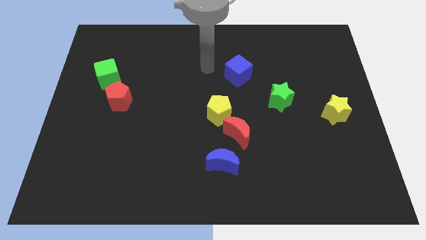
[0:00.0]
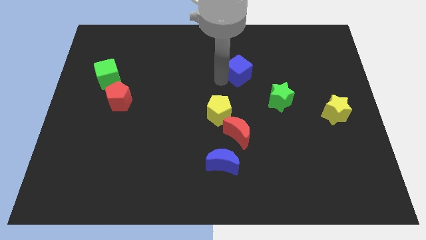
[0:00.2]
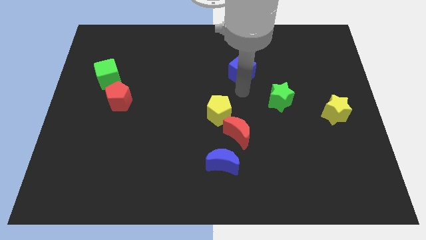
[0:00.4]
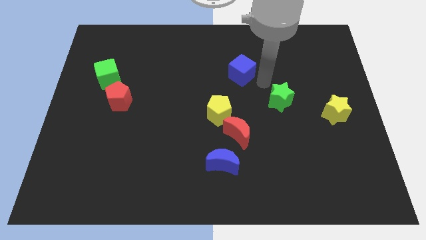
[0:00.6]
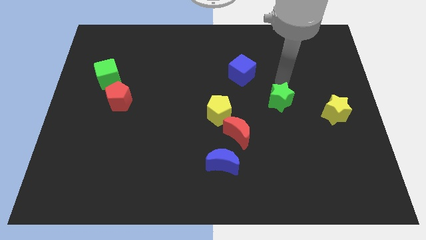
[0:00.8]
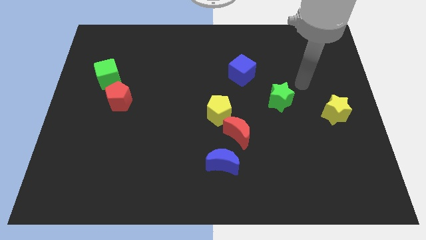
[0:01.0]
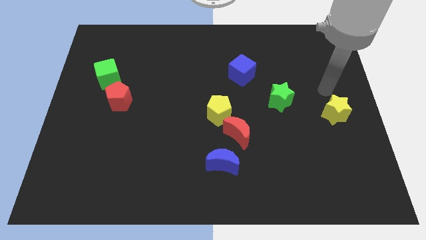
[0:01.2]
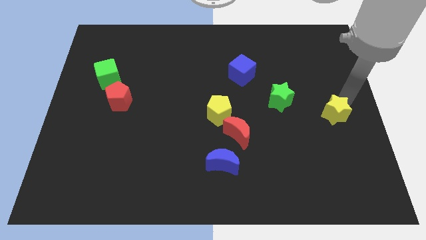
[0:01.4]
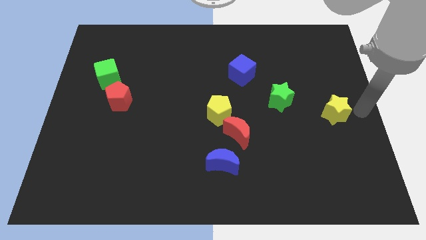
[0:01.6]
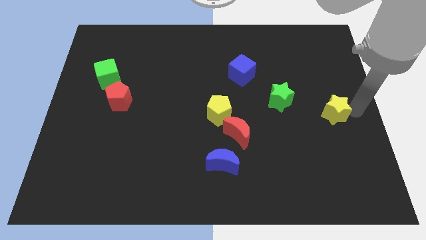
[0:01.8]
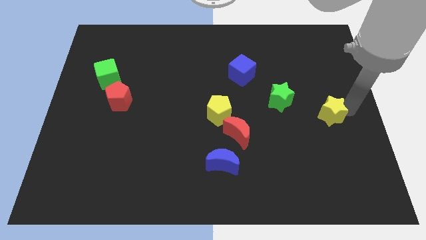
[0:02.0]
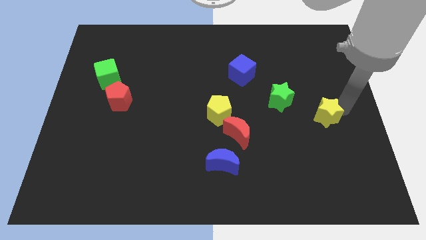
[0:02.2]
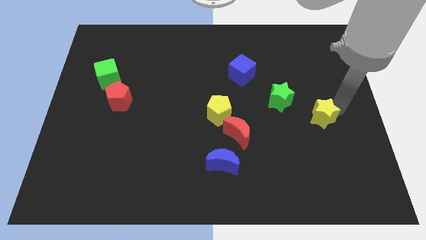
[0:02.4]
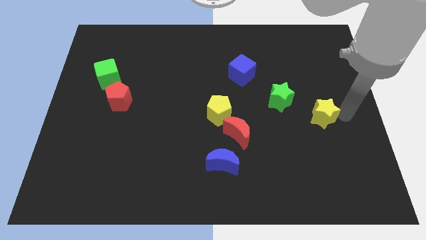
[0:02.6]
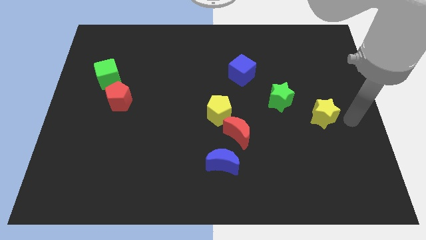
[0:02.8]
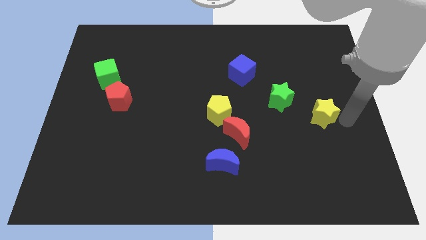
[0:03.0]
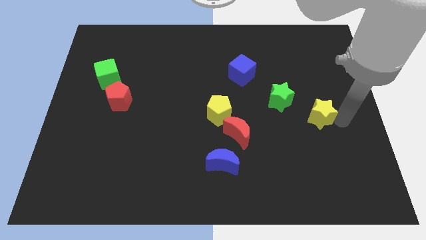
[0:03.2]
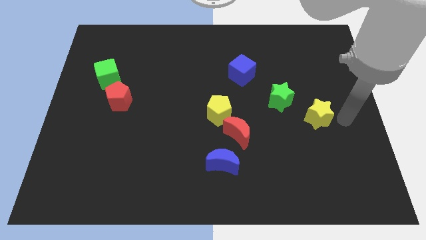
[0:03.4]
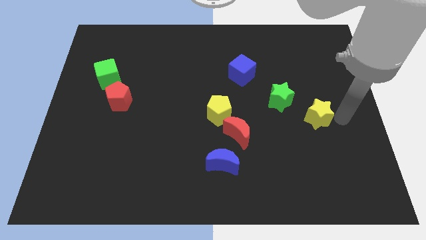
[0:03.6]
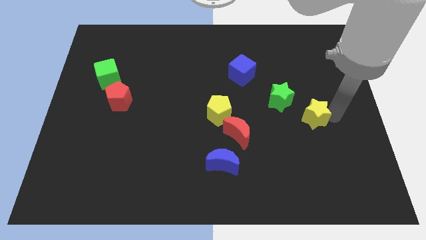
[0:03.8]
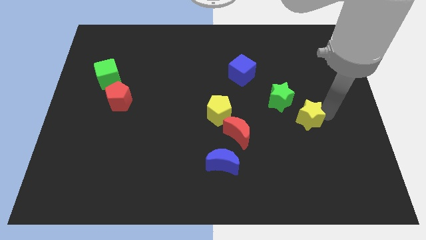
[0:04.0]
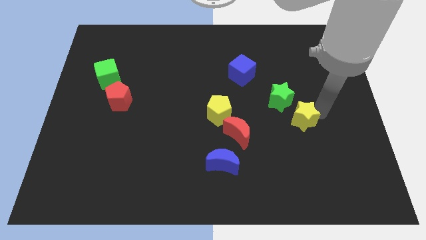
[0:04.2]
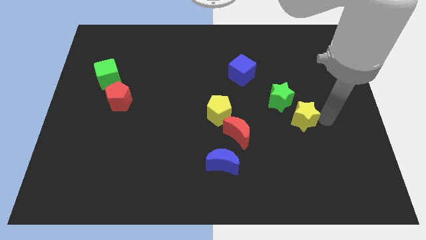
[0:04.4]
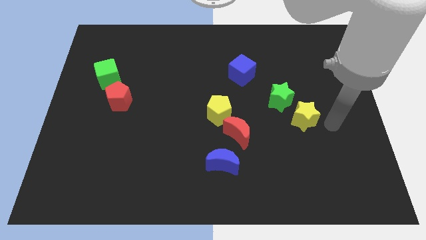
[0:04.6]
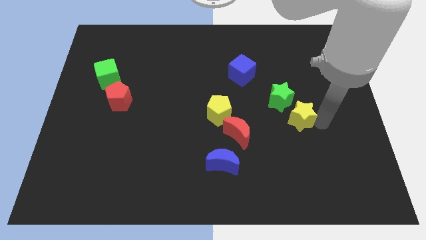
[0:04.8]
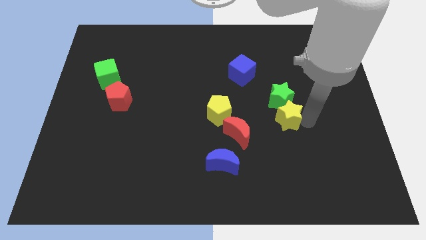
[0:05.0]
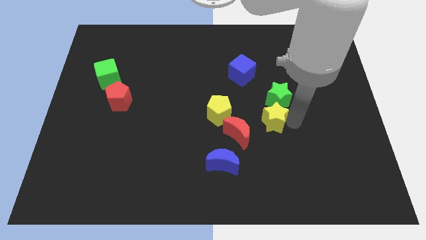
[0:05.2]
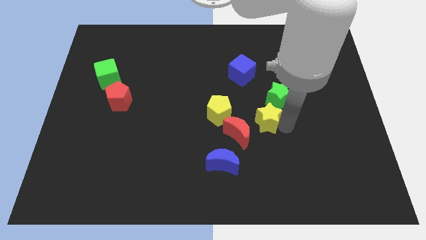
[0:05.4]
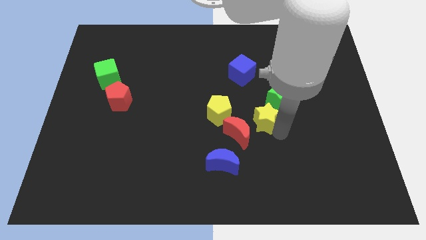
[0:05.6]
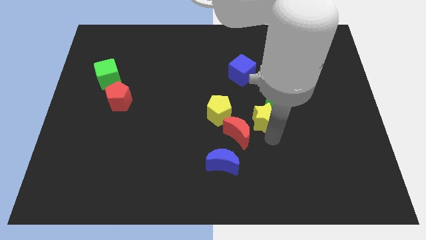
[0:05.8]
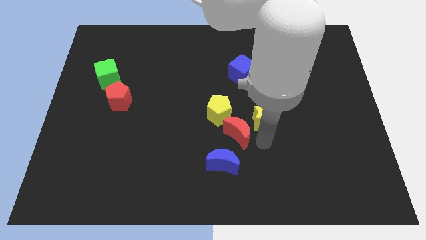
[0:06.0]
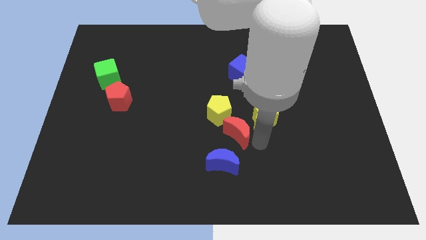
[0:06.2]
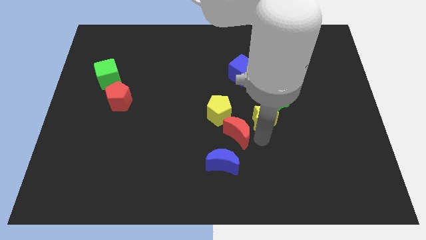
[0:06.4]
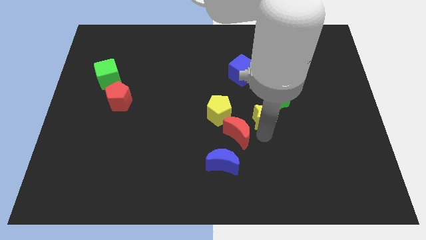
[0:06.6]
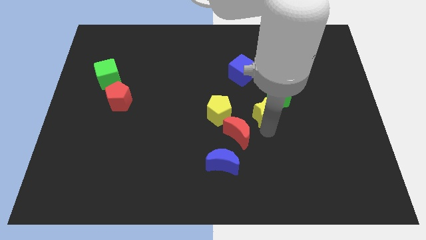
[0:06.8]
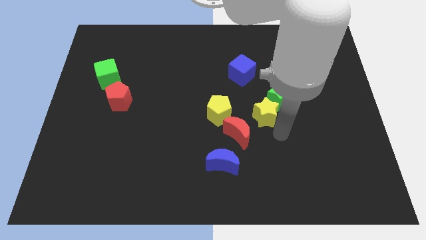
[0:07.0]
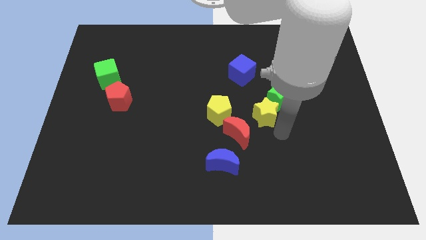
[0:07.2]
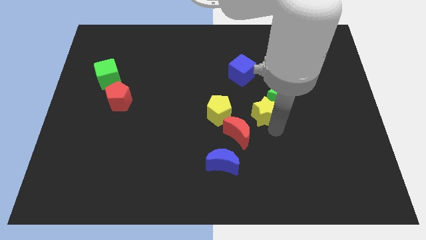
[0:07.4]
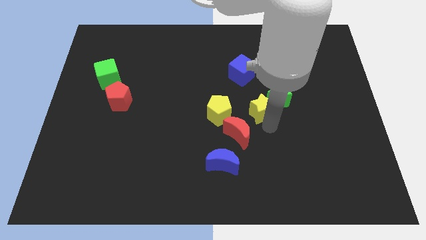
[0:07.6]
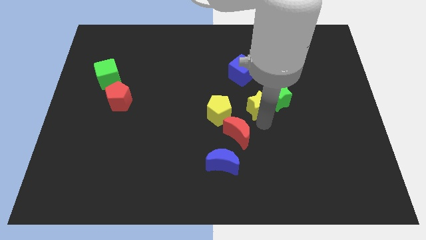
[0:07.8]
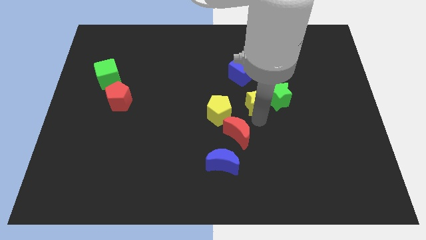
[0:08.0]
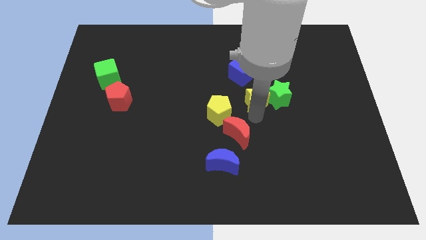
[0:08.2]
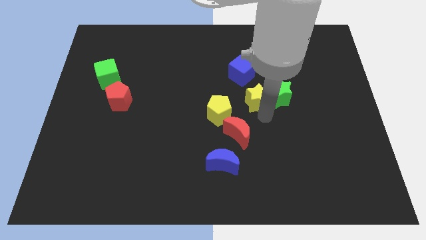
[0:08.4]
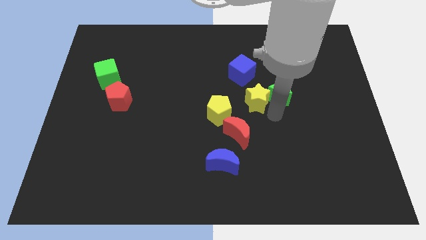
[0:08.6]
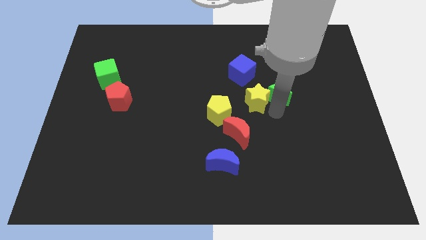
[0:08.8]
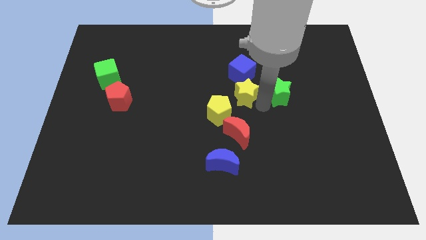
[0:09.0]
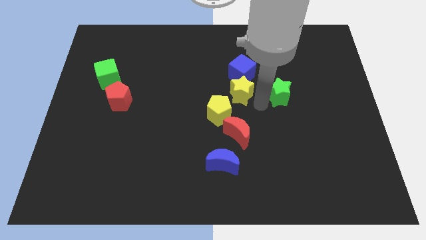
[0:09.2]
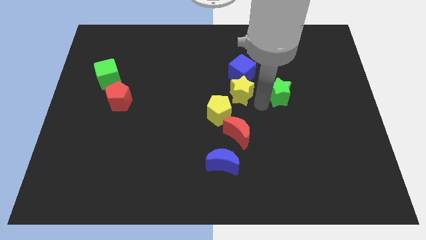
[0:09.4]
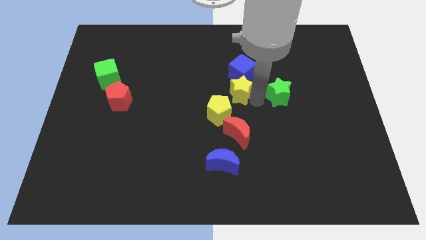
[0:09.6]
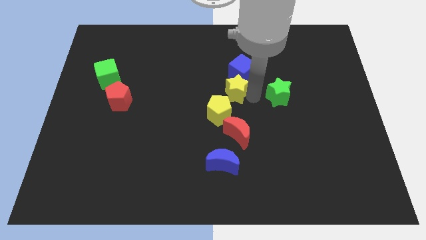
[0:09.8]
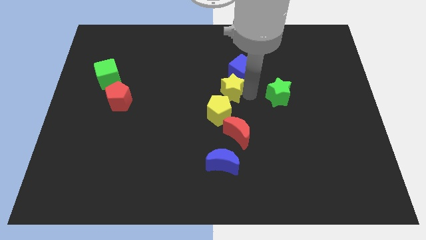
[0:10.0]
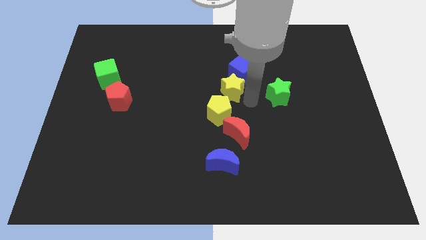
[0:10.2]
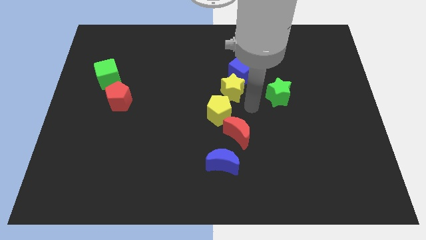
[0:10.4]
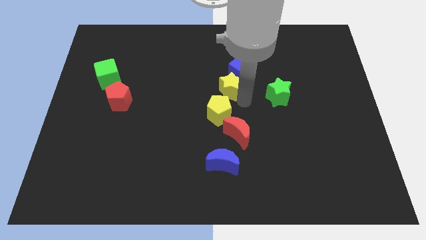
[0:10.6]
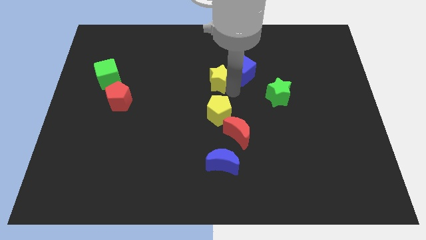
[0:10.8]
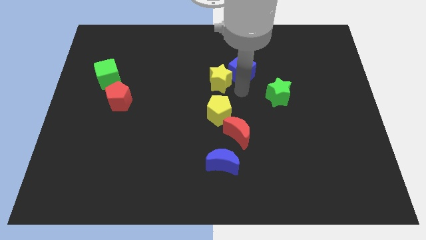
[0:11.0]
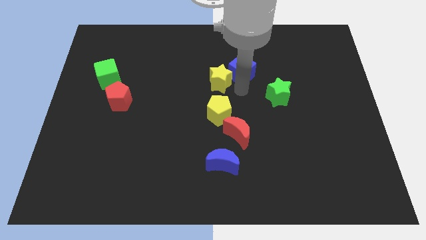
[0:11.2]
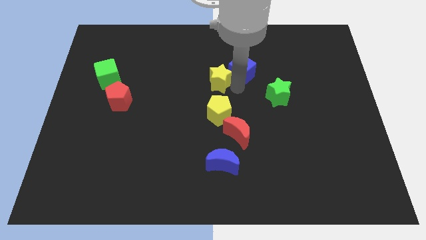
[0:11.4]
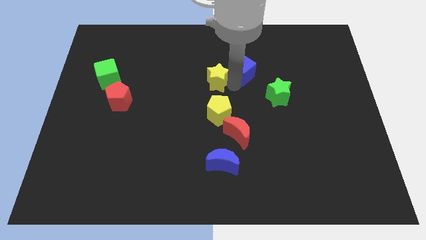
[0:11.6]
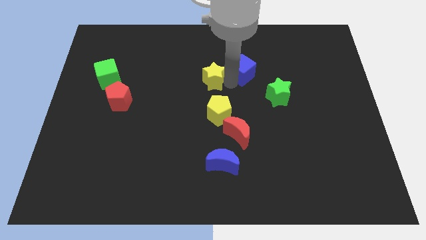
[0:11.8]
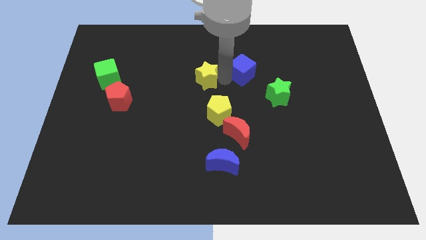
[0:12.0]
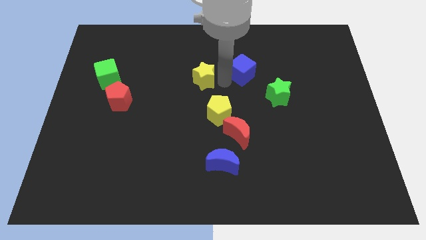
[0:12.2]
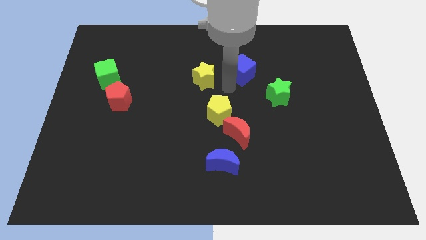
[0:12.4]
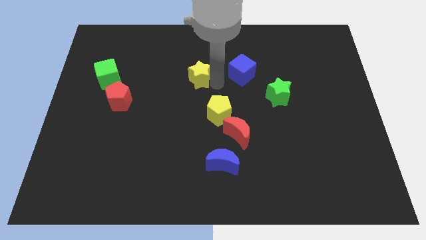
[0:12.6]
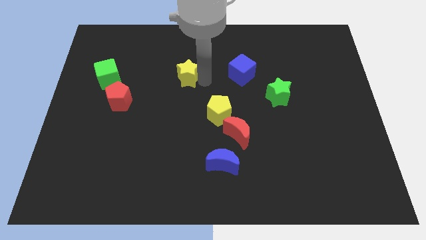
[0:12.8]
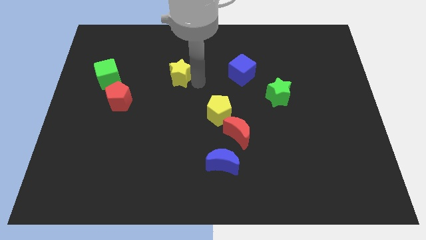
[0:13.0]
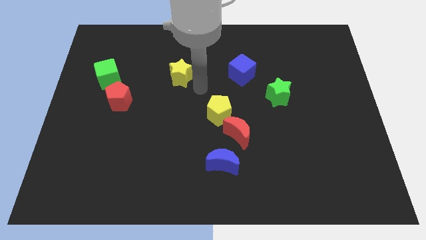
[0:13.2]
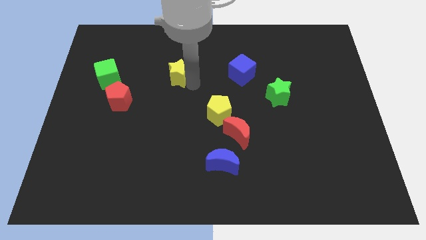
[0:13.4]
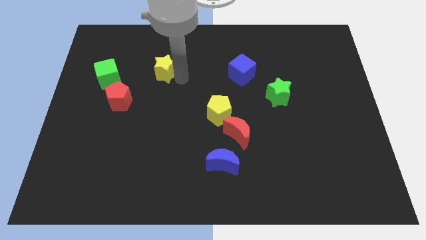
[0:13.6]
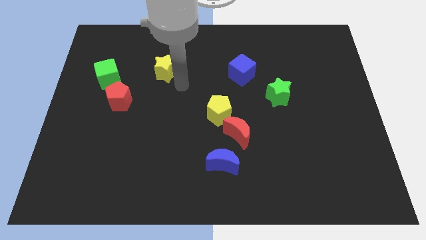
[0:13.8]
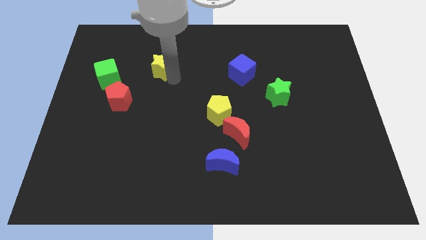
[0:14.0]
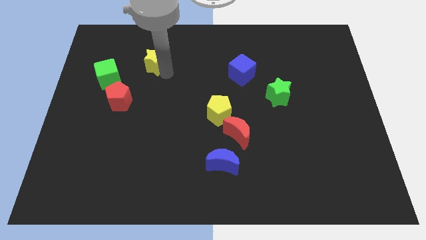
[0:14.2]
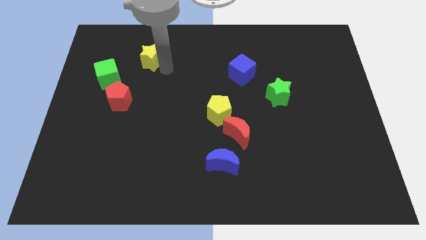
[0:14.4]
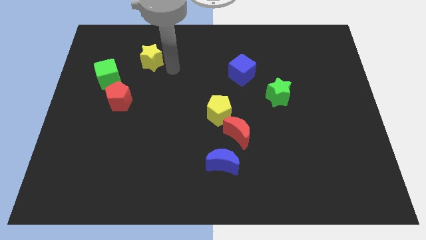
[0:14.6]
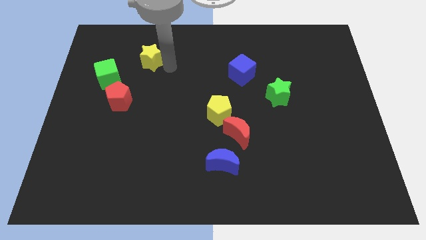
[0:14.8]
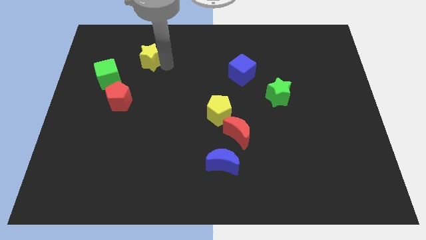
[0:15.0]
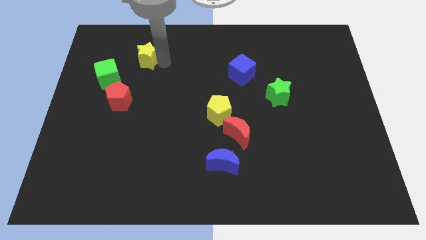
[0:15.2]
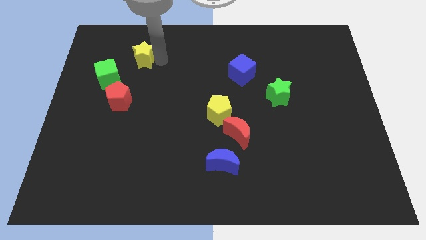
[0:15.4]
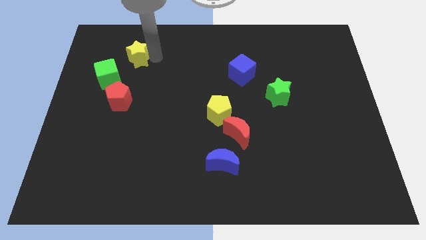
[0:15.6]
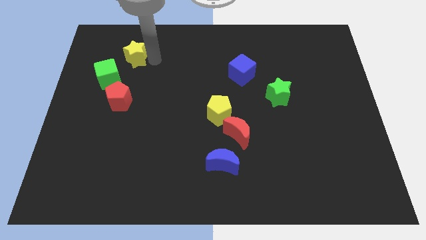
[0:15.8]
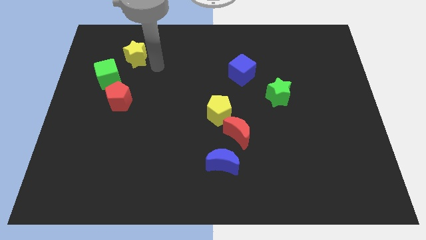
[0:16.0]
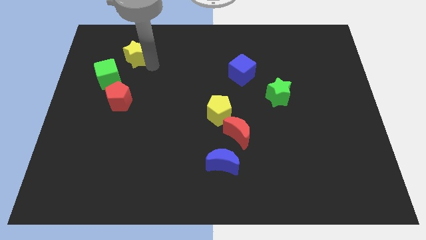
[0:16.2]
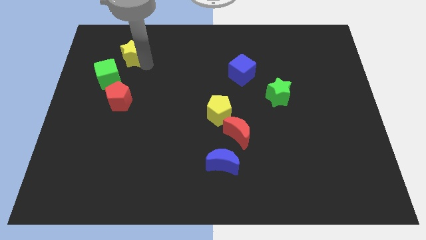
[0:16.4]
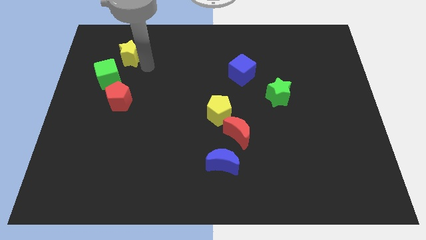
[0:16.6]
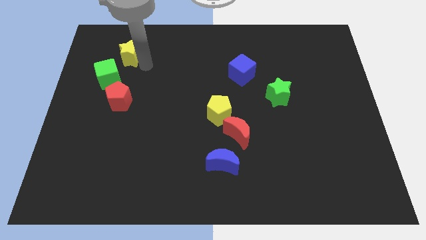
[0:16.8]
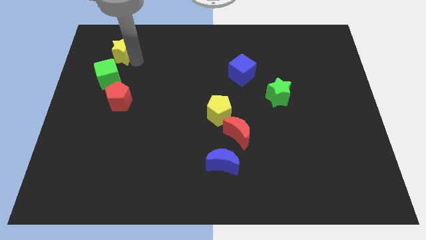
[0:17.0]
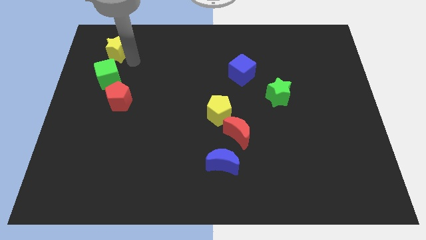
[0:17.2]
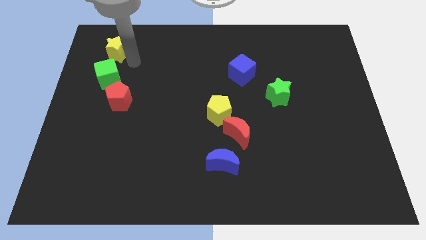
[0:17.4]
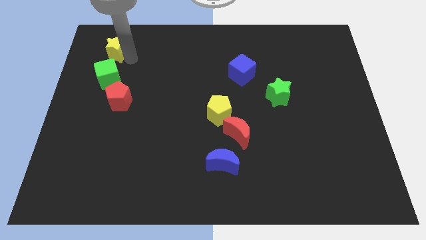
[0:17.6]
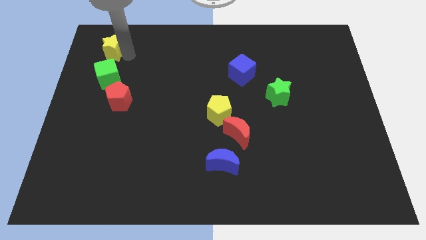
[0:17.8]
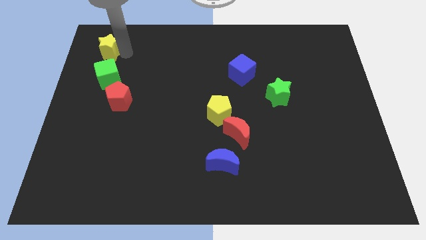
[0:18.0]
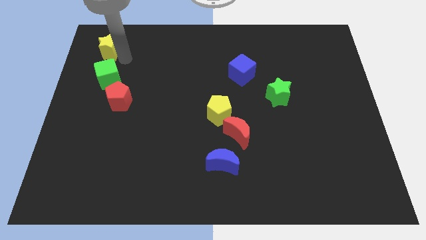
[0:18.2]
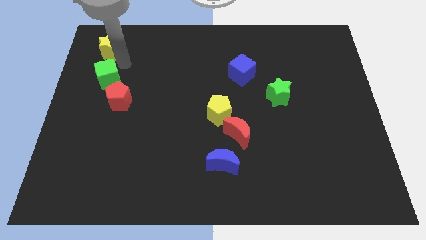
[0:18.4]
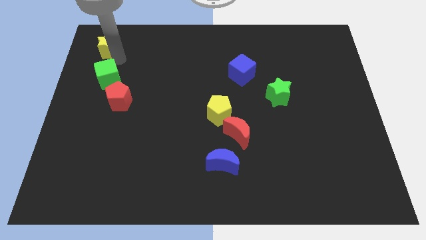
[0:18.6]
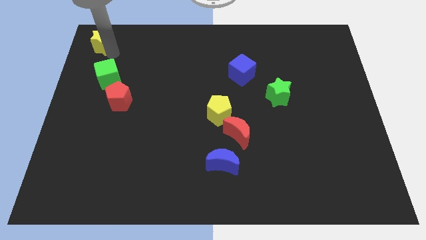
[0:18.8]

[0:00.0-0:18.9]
put the yellow star to the top left corner
